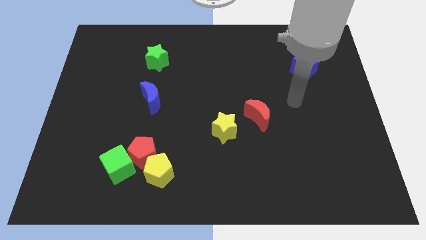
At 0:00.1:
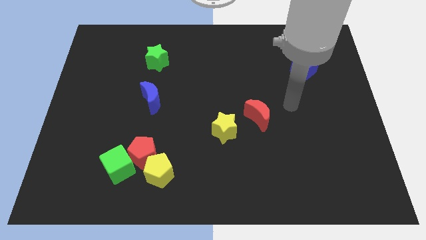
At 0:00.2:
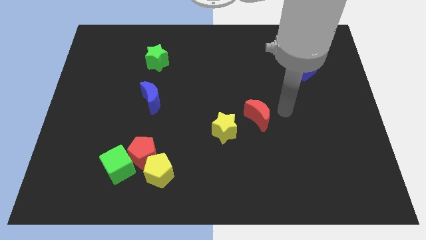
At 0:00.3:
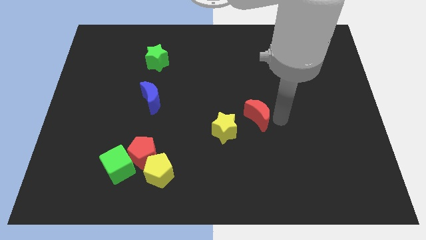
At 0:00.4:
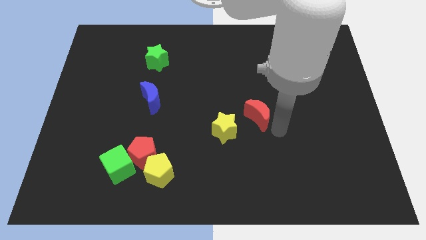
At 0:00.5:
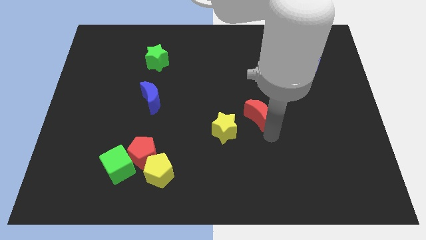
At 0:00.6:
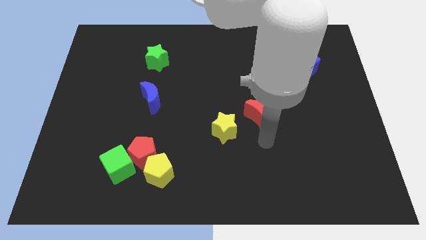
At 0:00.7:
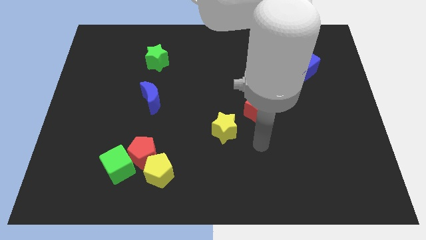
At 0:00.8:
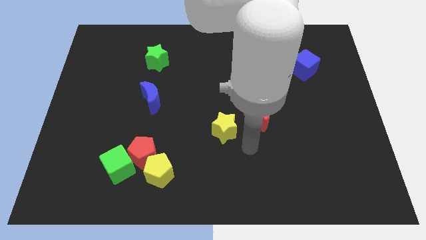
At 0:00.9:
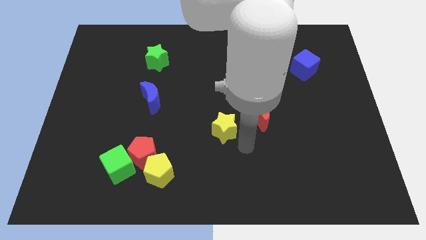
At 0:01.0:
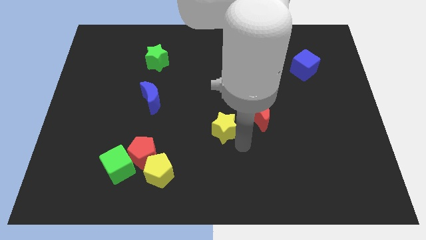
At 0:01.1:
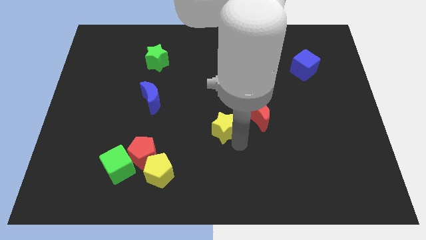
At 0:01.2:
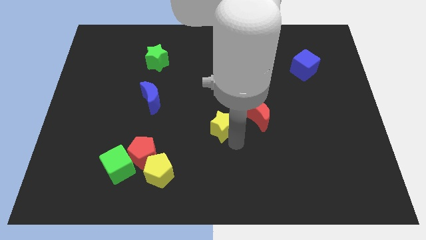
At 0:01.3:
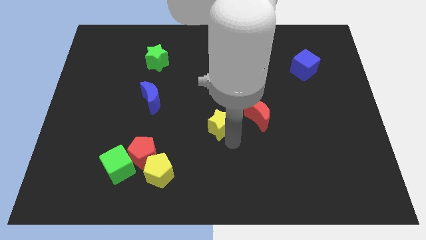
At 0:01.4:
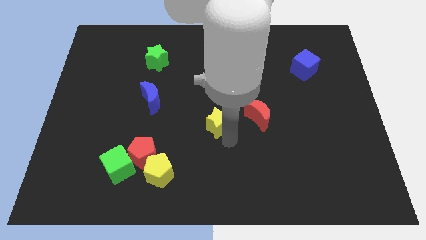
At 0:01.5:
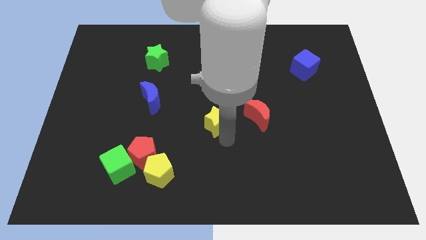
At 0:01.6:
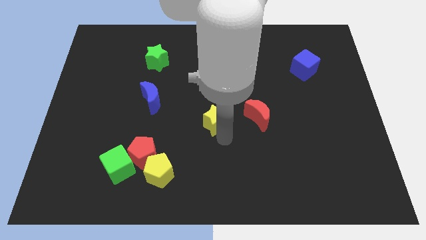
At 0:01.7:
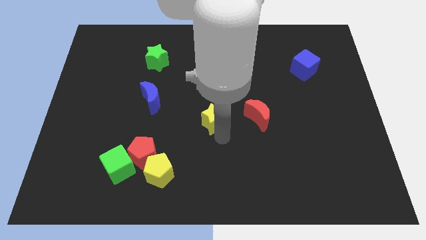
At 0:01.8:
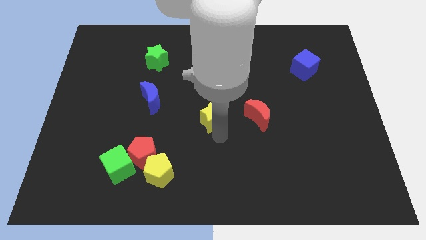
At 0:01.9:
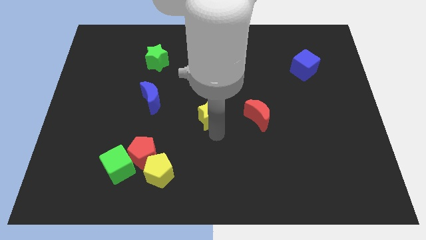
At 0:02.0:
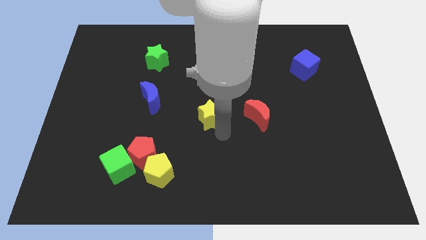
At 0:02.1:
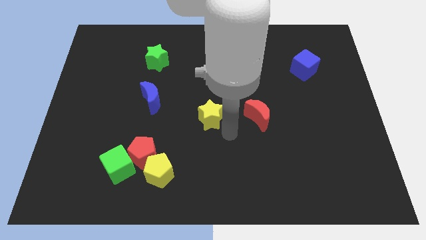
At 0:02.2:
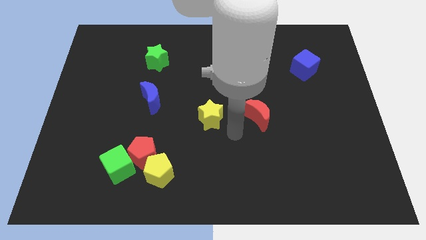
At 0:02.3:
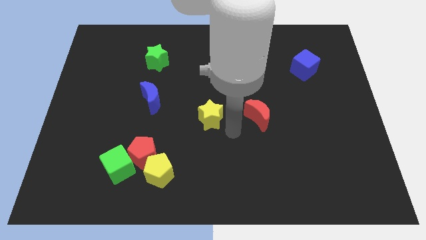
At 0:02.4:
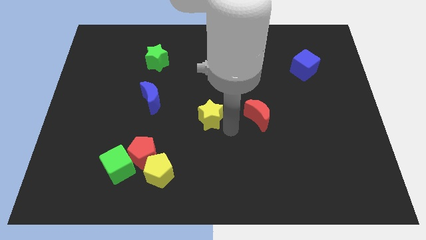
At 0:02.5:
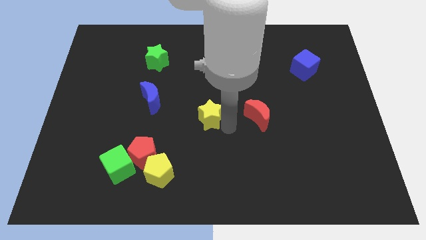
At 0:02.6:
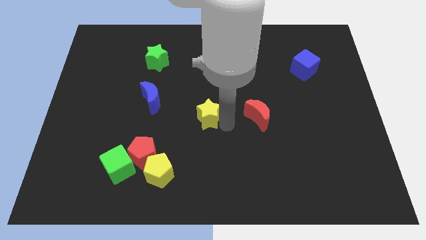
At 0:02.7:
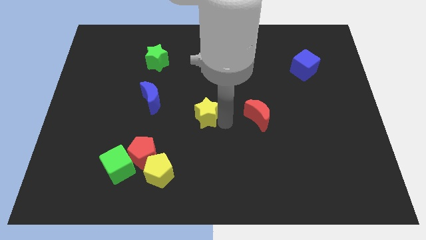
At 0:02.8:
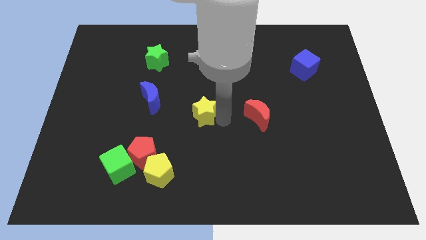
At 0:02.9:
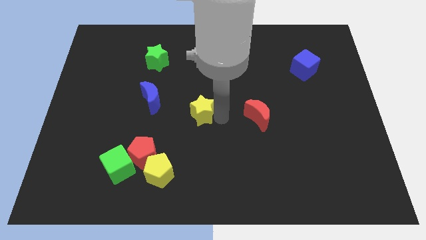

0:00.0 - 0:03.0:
slide the yellow star a little bit diagonally upwards and left

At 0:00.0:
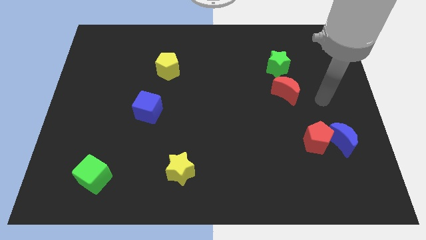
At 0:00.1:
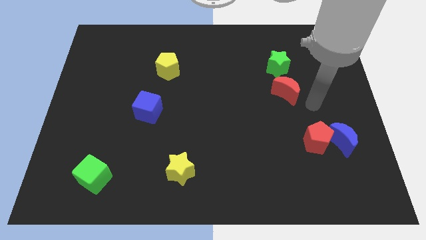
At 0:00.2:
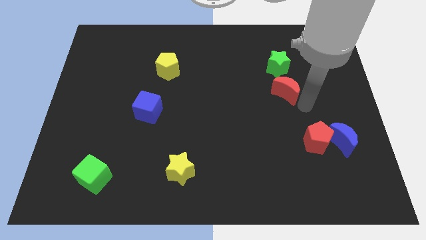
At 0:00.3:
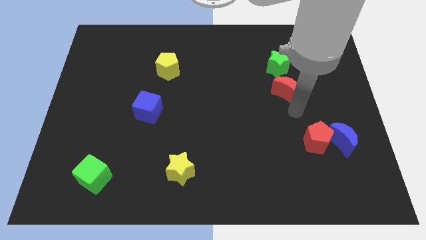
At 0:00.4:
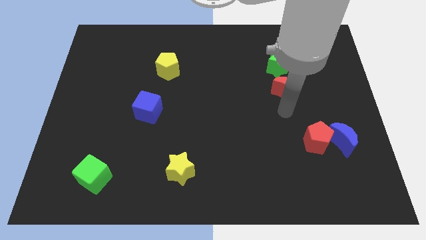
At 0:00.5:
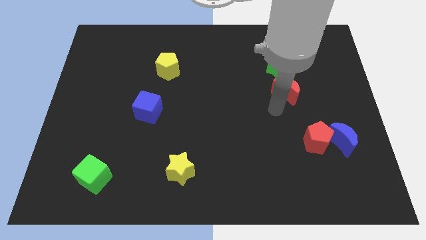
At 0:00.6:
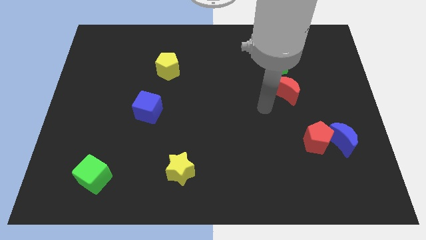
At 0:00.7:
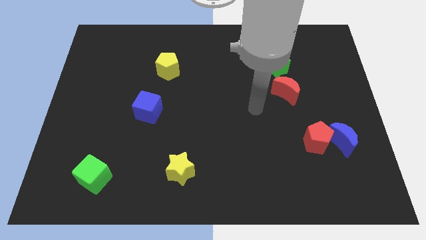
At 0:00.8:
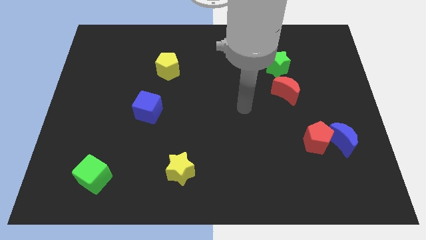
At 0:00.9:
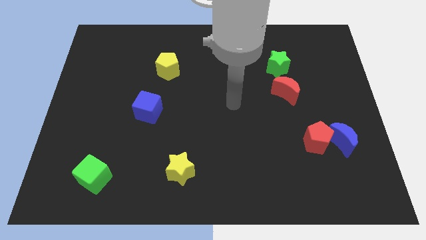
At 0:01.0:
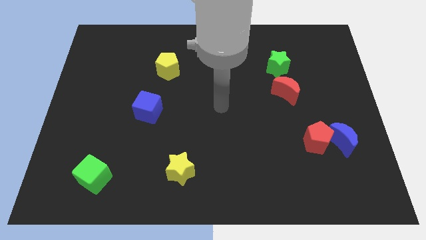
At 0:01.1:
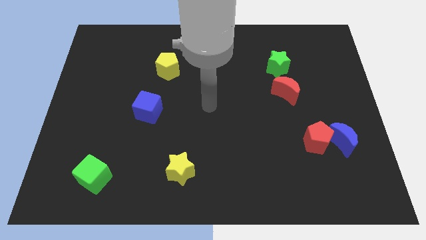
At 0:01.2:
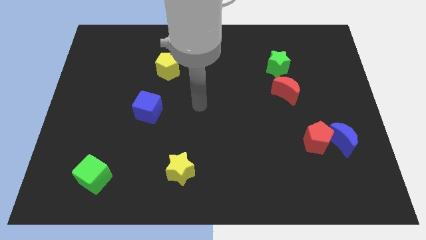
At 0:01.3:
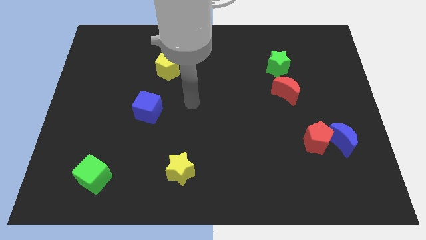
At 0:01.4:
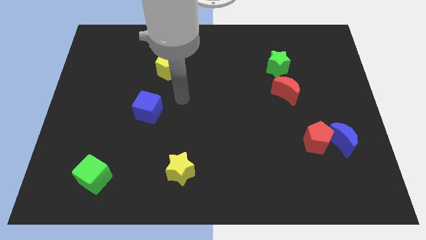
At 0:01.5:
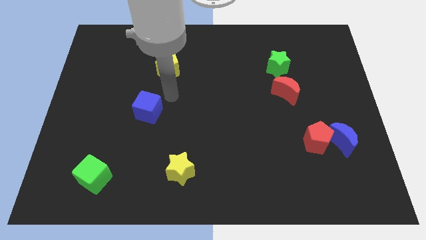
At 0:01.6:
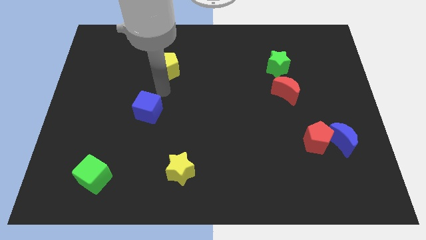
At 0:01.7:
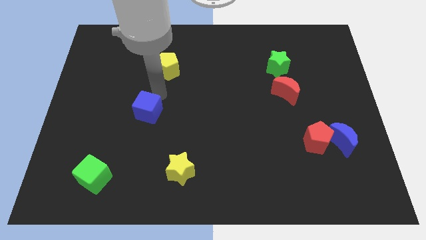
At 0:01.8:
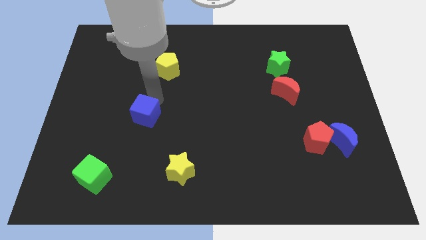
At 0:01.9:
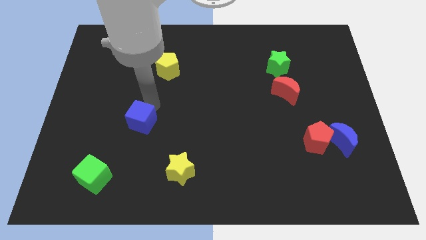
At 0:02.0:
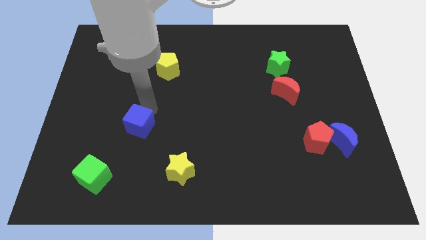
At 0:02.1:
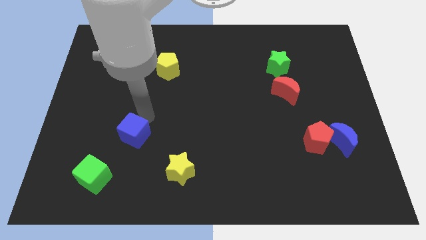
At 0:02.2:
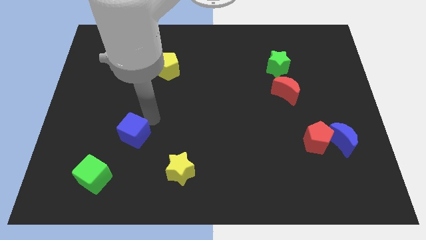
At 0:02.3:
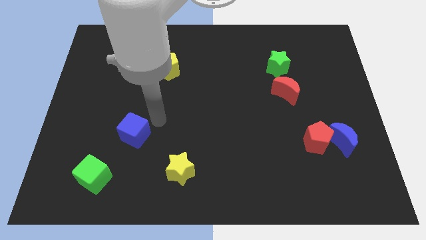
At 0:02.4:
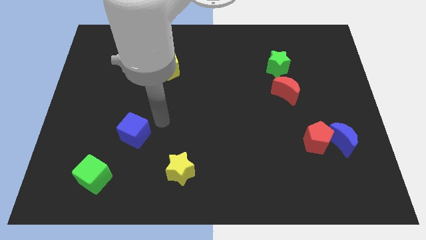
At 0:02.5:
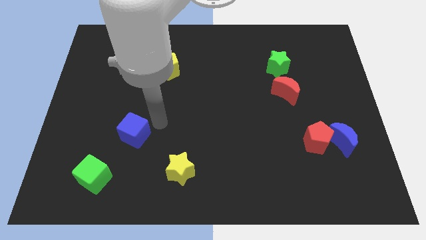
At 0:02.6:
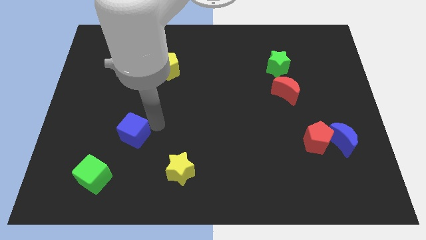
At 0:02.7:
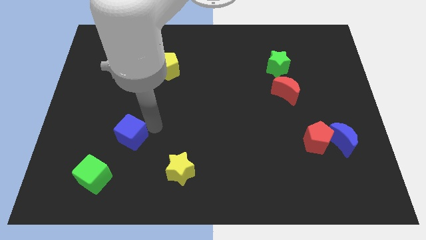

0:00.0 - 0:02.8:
push the blue cube slightly downwards and to the left

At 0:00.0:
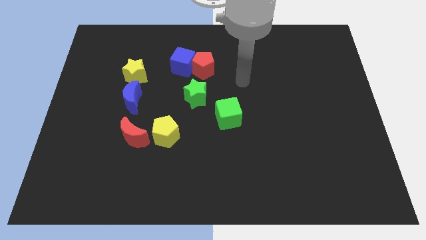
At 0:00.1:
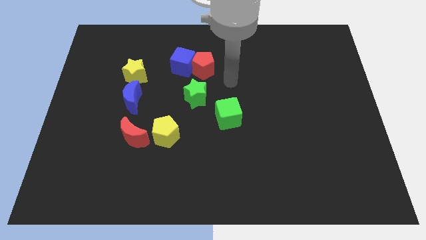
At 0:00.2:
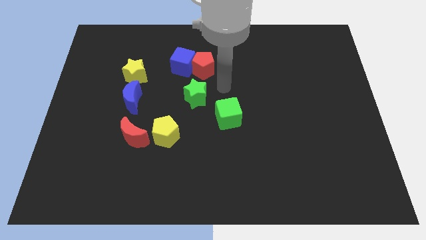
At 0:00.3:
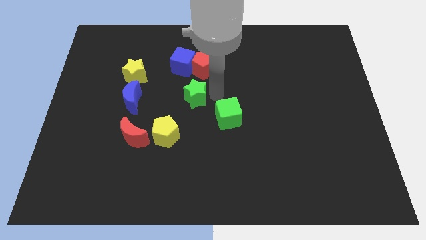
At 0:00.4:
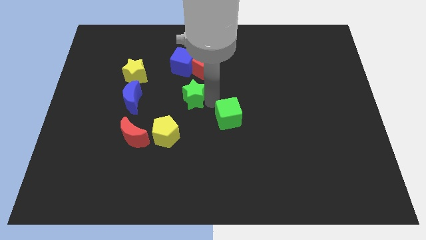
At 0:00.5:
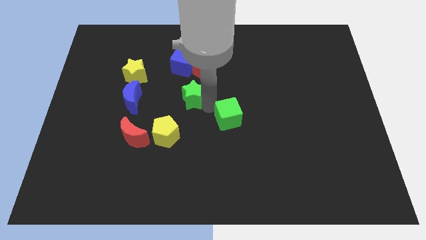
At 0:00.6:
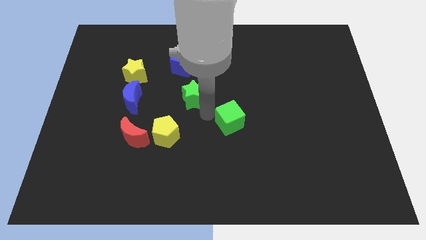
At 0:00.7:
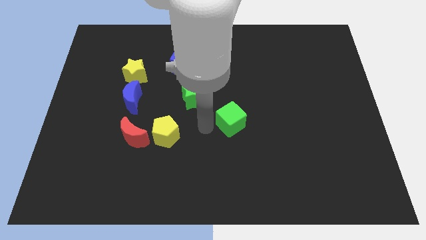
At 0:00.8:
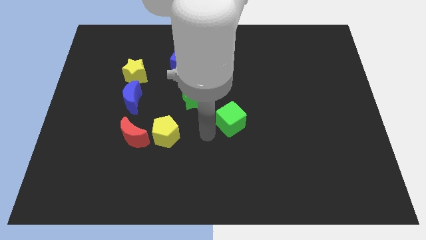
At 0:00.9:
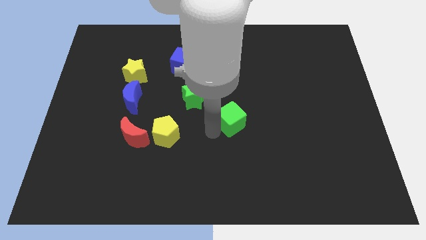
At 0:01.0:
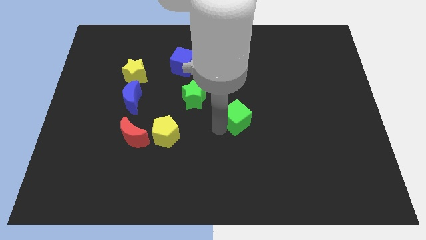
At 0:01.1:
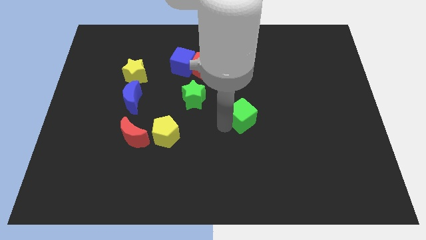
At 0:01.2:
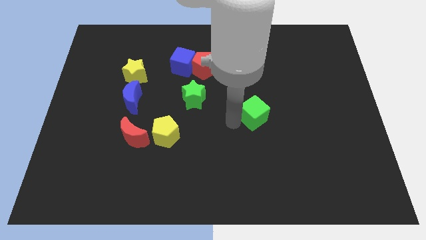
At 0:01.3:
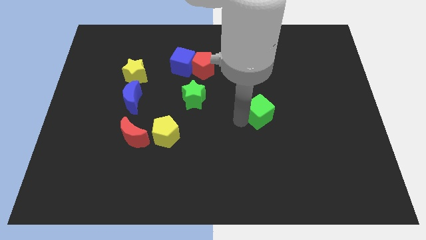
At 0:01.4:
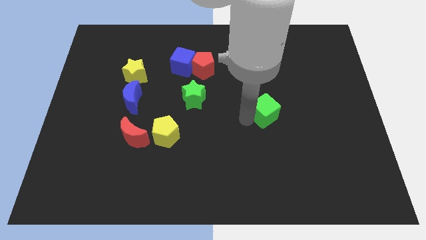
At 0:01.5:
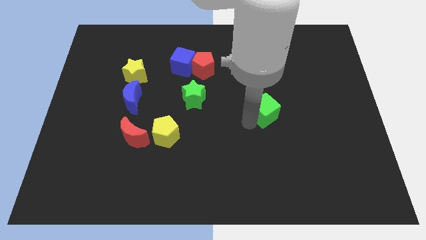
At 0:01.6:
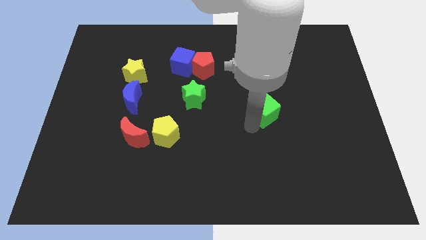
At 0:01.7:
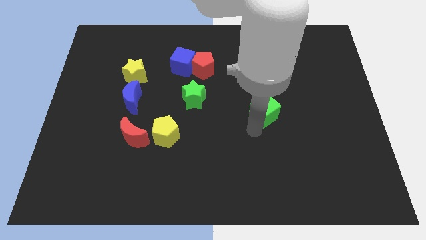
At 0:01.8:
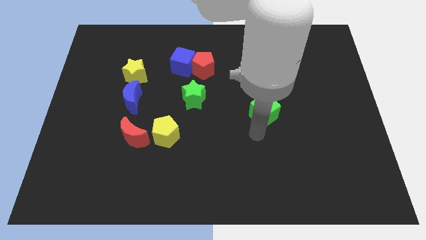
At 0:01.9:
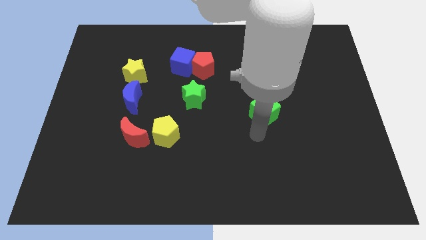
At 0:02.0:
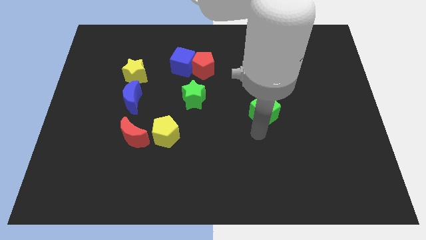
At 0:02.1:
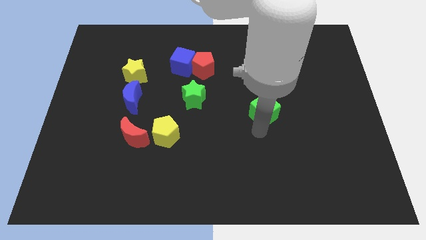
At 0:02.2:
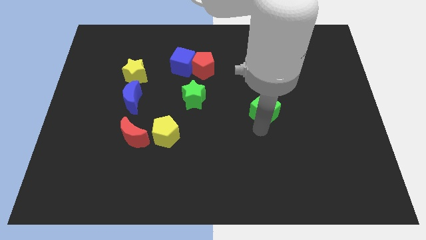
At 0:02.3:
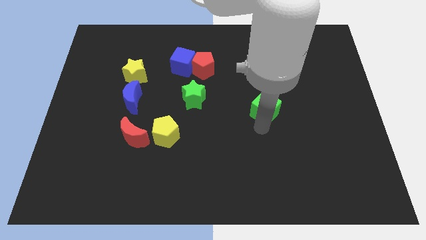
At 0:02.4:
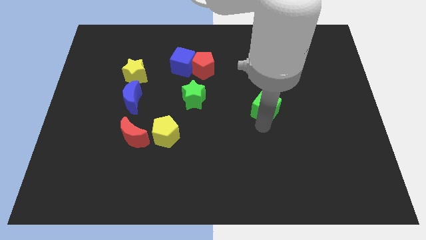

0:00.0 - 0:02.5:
push the green cube a bit diagonally up and to the right

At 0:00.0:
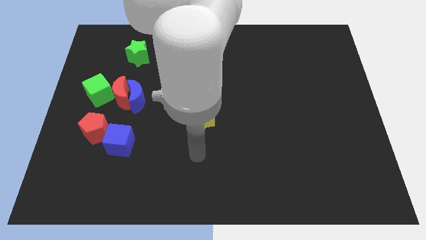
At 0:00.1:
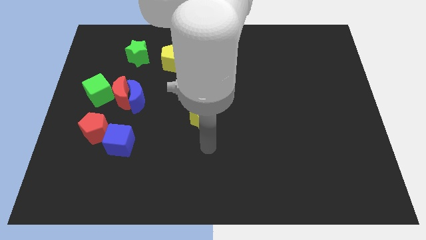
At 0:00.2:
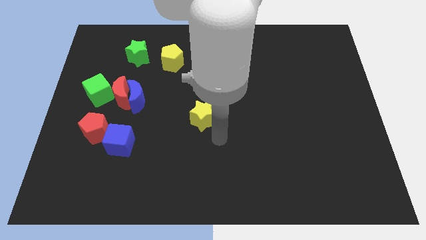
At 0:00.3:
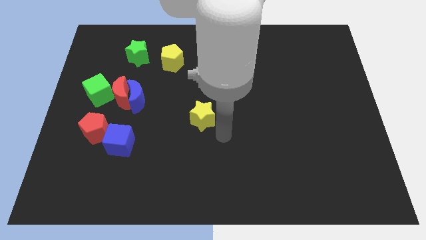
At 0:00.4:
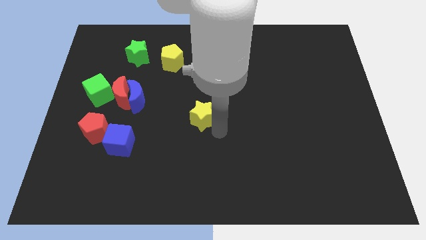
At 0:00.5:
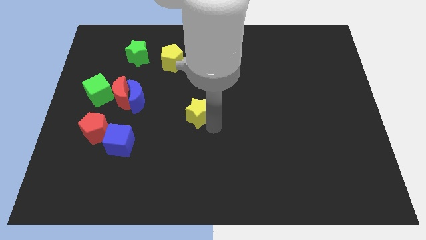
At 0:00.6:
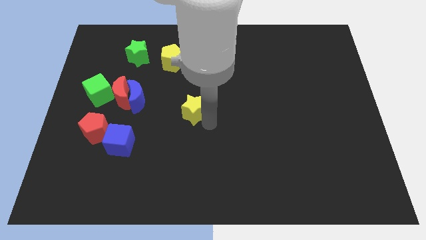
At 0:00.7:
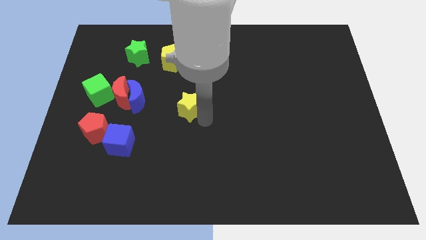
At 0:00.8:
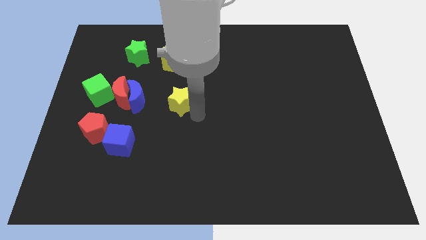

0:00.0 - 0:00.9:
slightly move the yellow star up and then left
